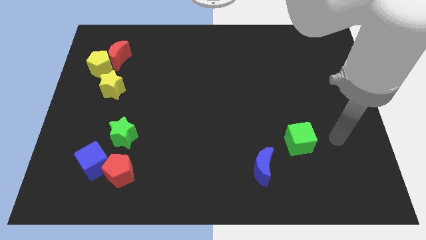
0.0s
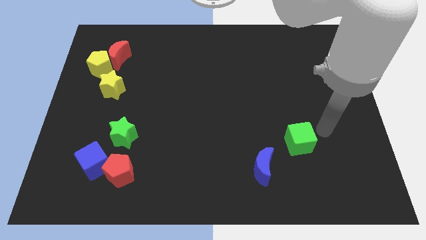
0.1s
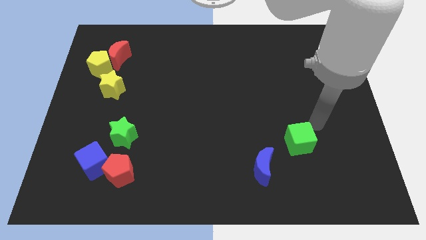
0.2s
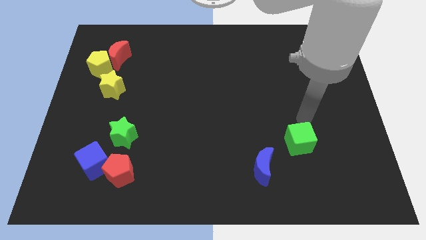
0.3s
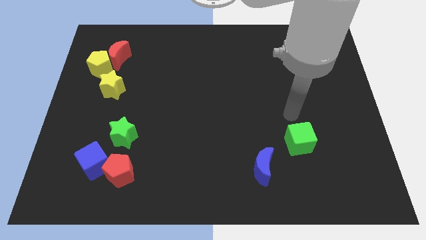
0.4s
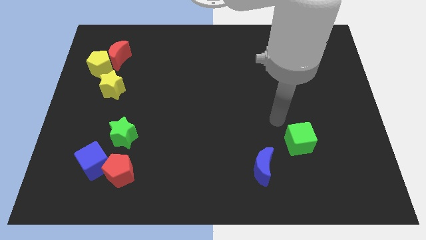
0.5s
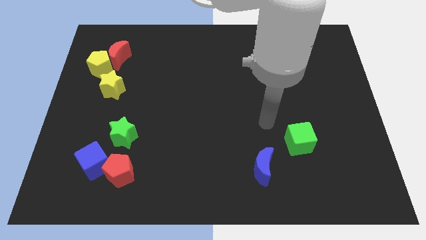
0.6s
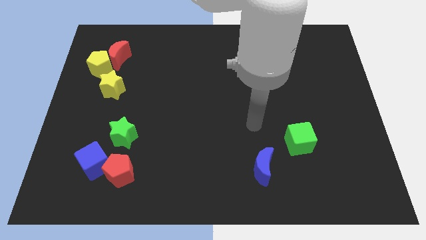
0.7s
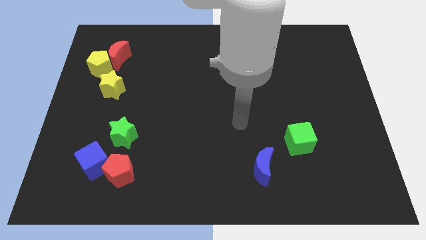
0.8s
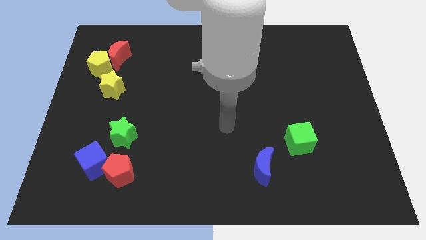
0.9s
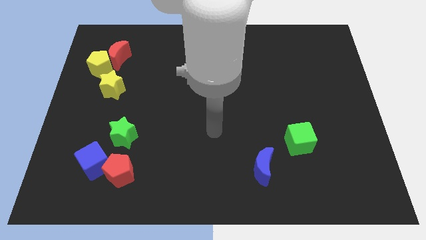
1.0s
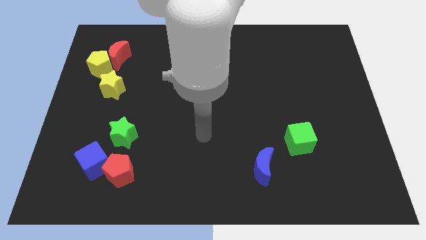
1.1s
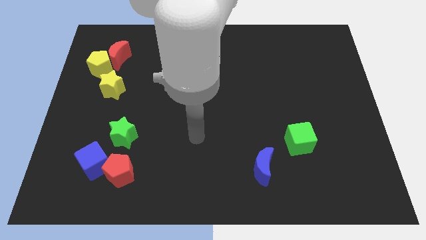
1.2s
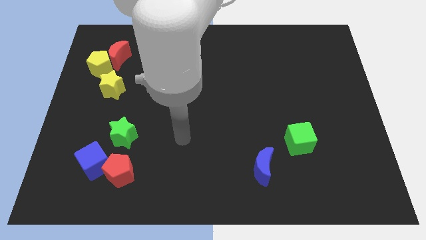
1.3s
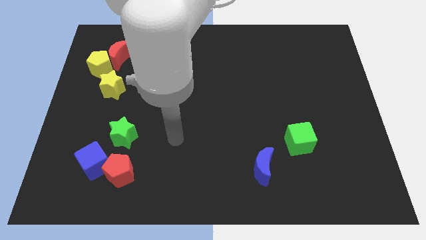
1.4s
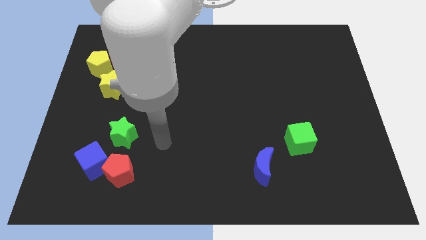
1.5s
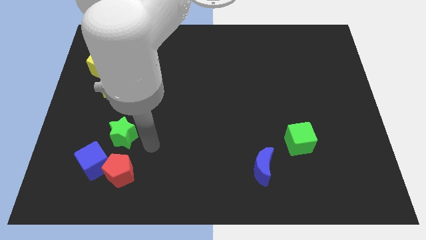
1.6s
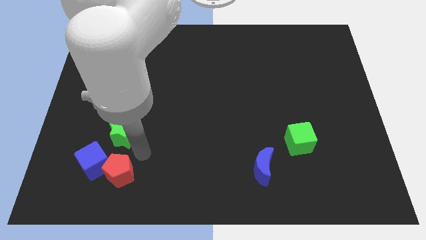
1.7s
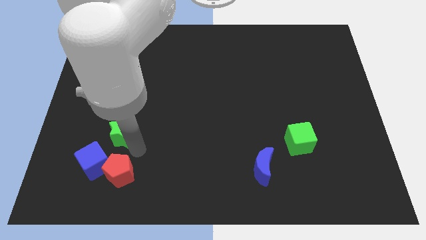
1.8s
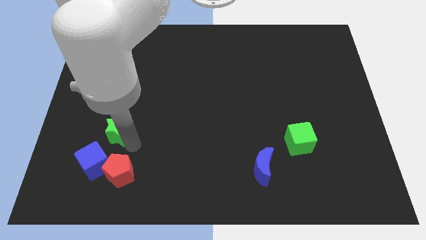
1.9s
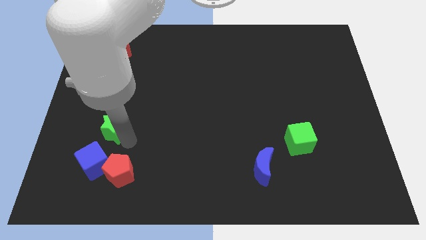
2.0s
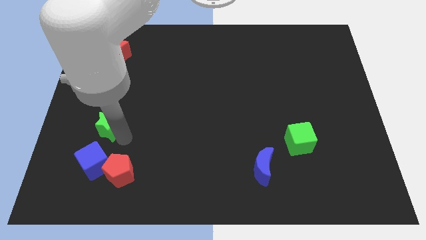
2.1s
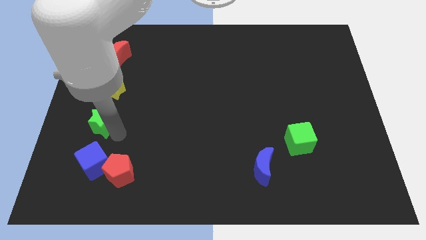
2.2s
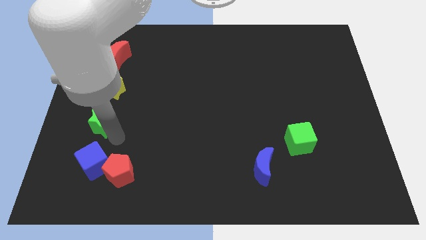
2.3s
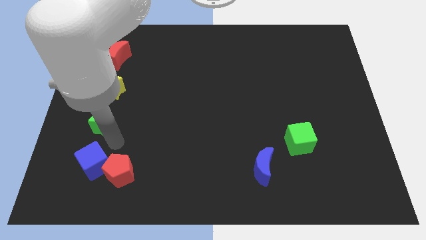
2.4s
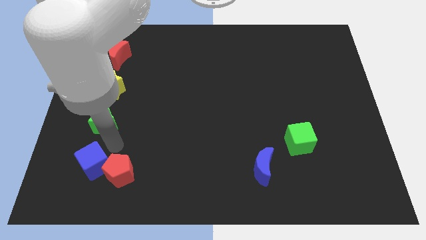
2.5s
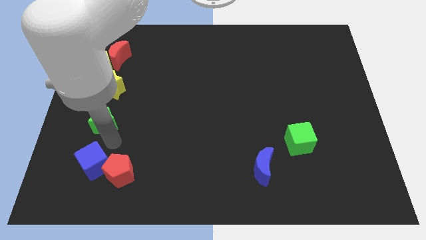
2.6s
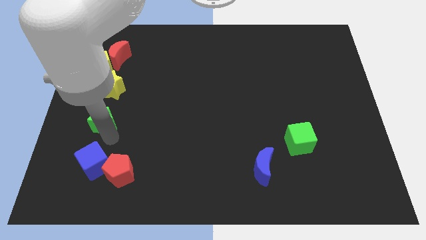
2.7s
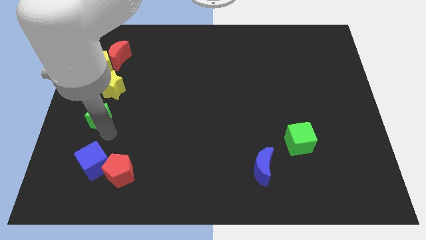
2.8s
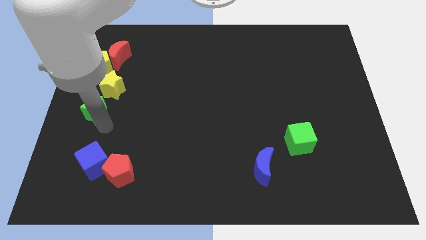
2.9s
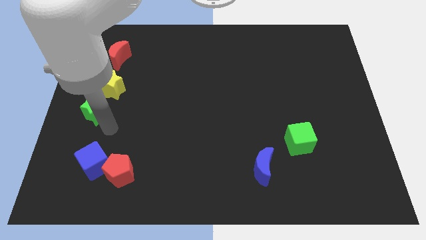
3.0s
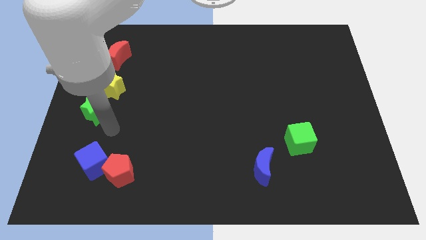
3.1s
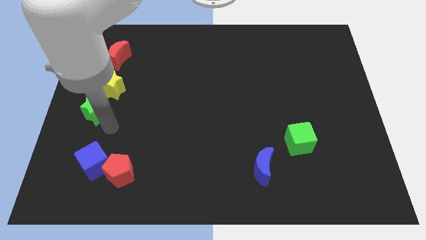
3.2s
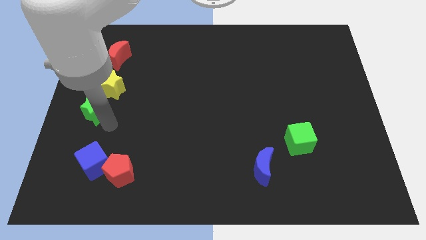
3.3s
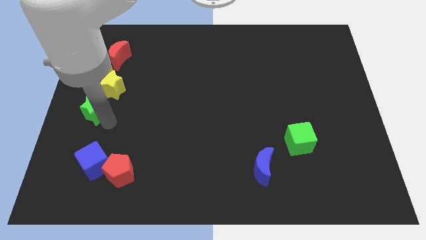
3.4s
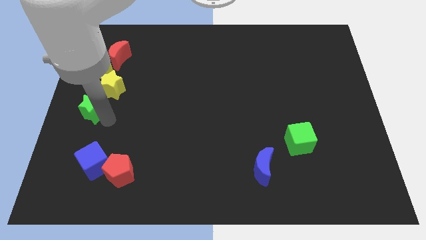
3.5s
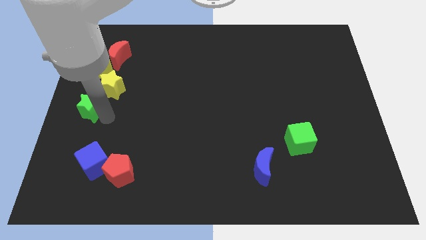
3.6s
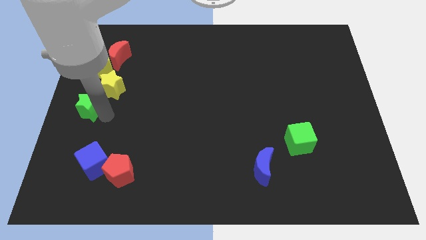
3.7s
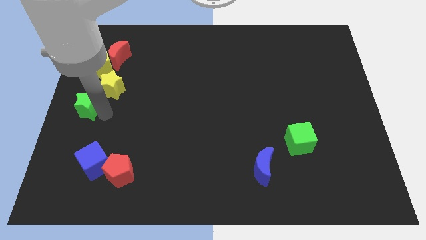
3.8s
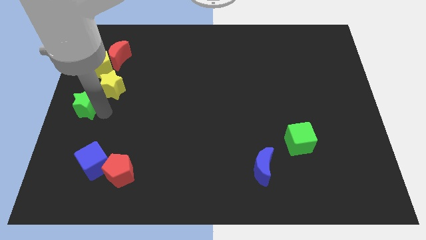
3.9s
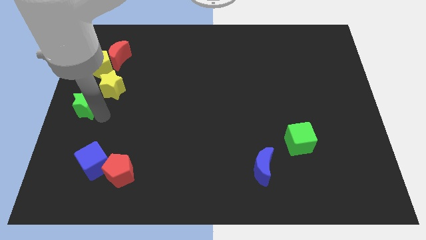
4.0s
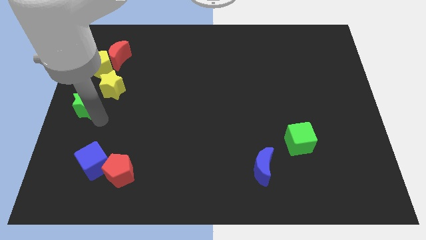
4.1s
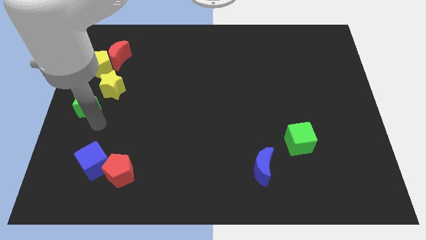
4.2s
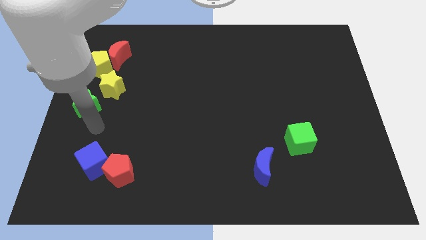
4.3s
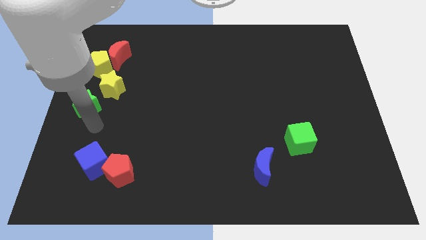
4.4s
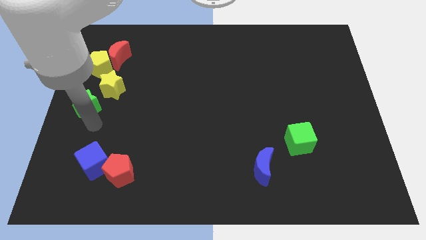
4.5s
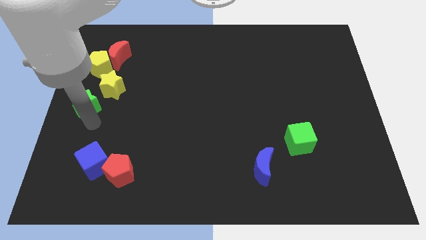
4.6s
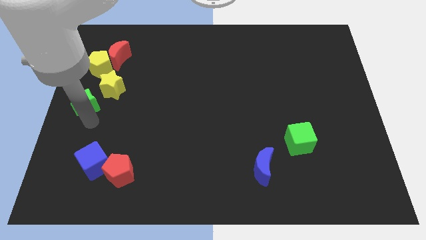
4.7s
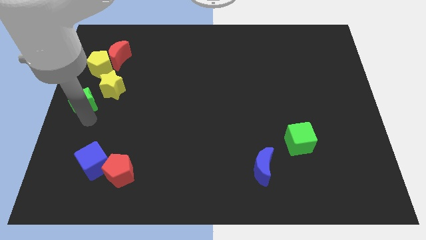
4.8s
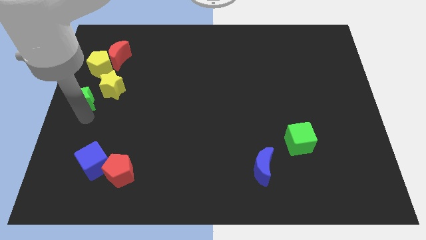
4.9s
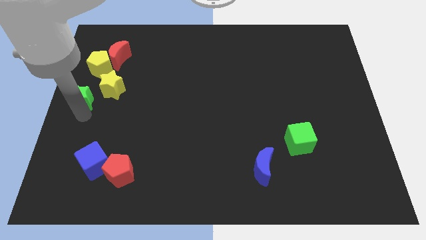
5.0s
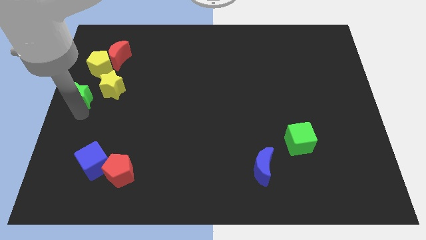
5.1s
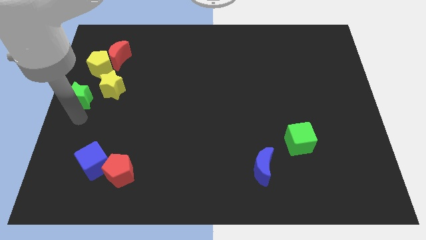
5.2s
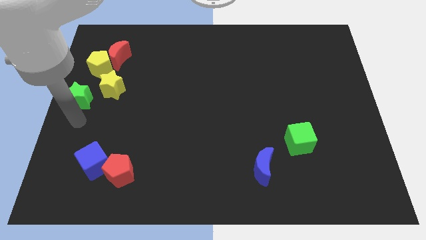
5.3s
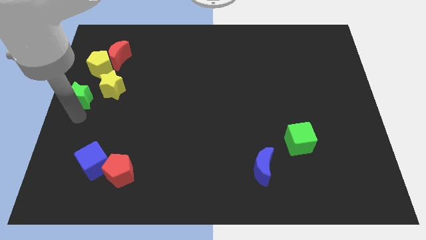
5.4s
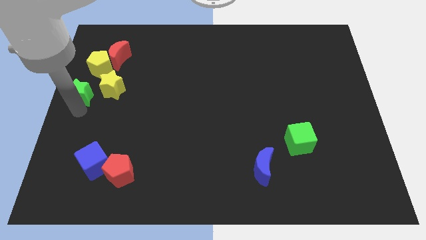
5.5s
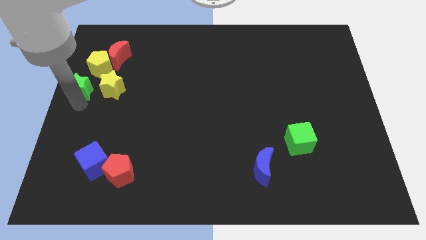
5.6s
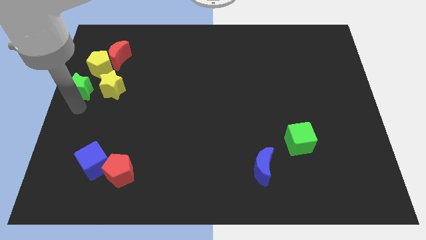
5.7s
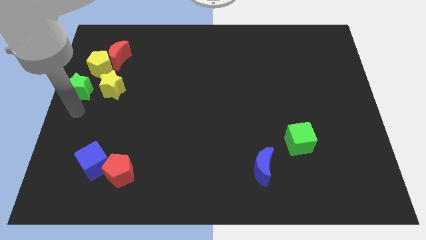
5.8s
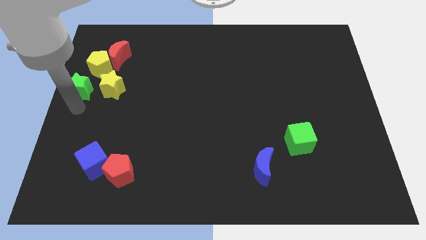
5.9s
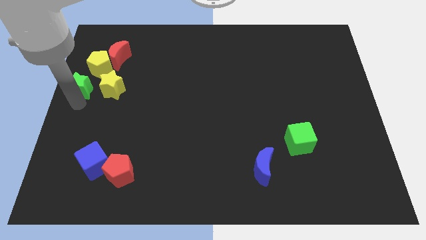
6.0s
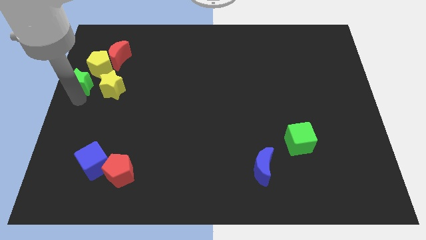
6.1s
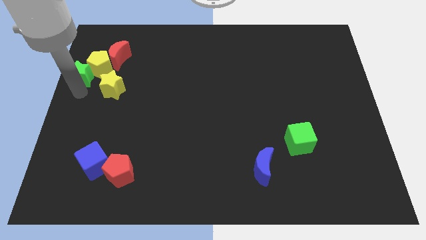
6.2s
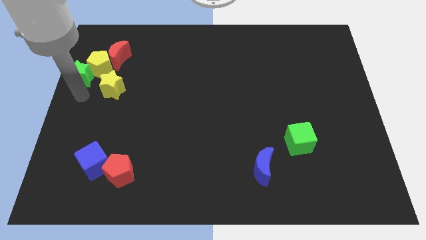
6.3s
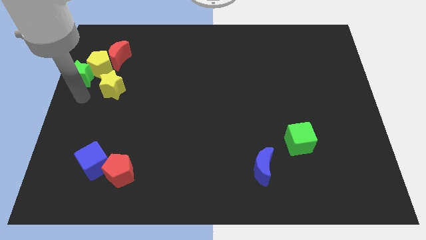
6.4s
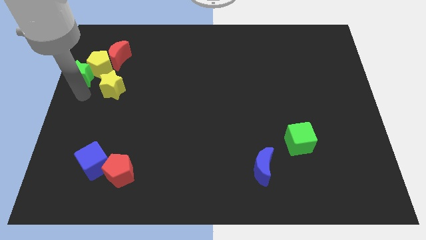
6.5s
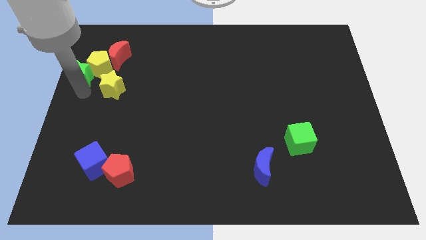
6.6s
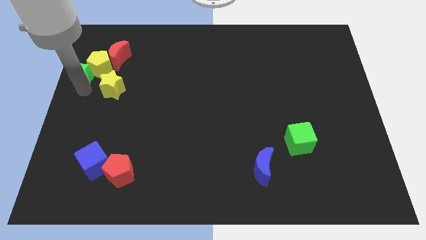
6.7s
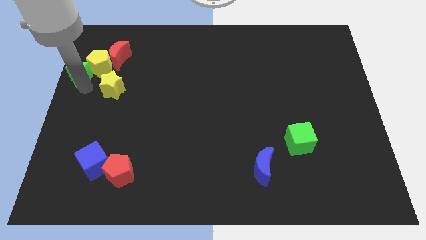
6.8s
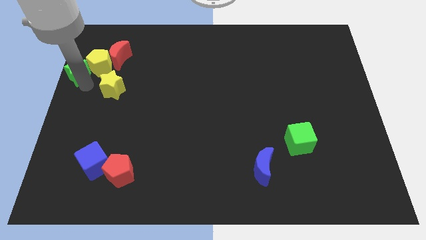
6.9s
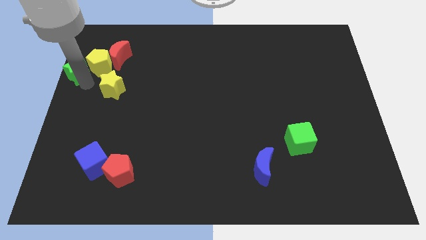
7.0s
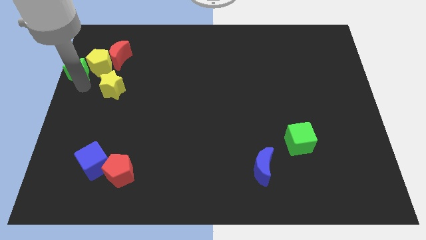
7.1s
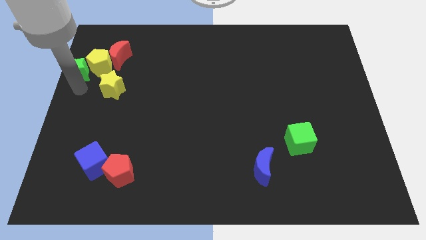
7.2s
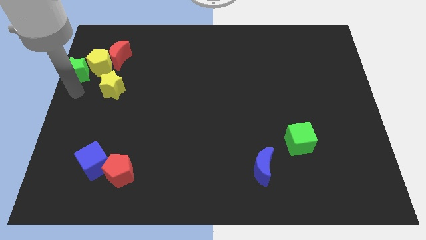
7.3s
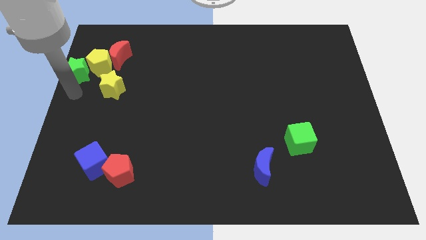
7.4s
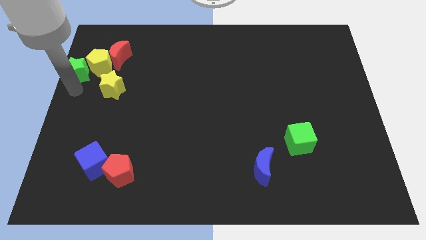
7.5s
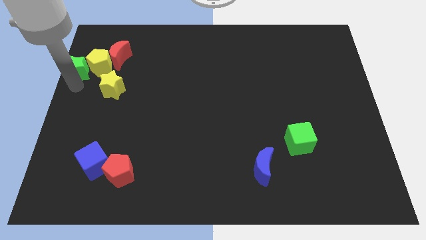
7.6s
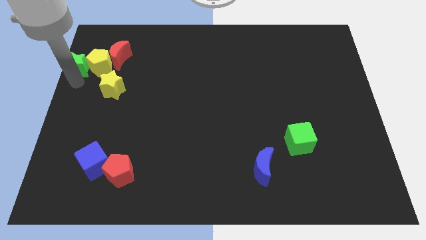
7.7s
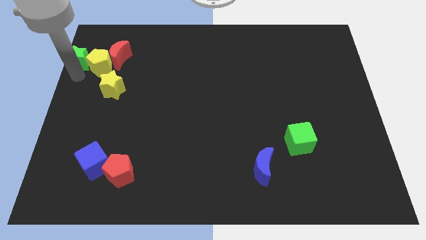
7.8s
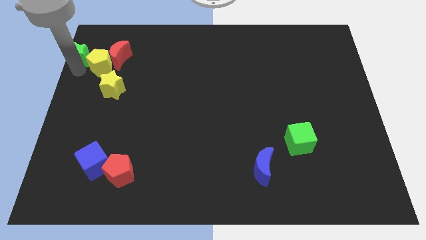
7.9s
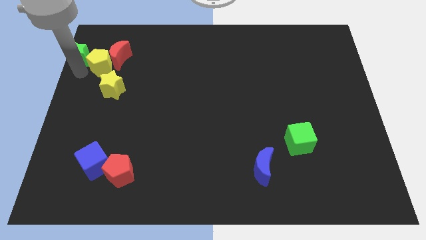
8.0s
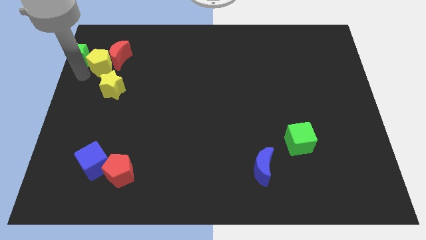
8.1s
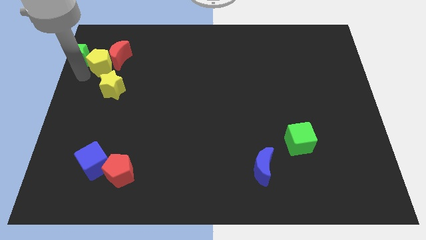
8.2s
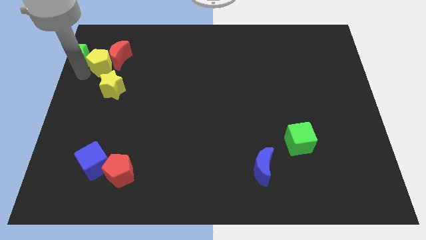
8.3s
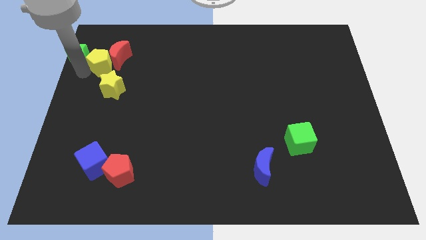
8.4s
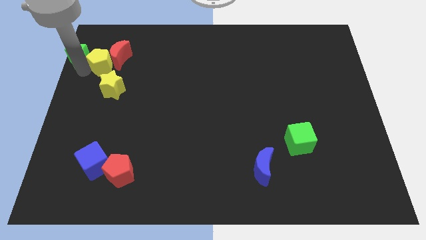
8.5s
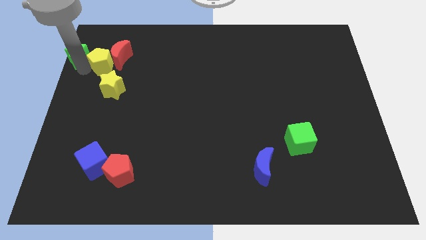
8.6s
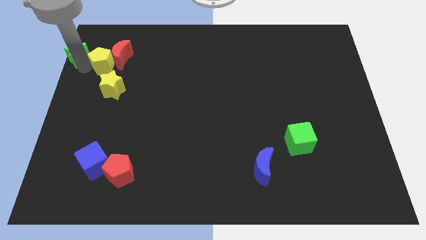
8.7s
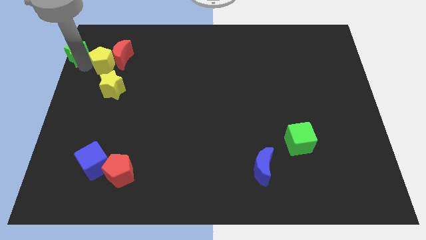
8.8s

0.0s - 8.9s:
put the green star to the top left corner
